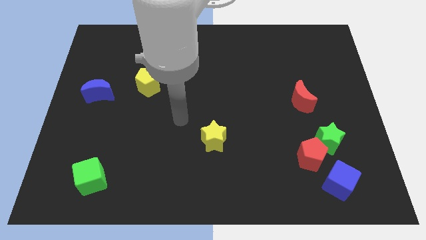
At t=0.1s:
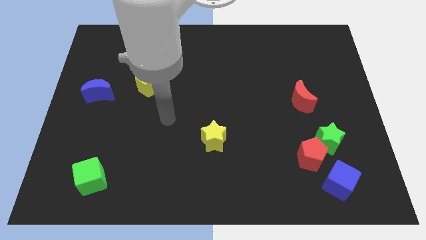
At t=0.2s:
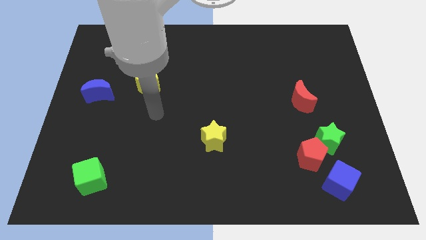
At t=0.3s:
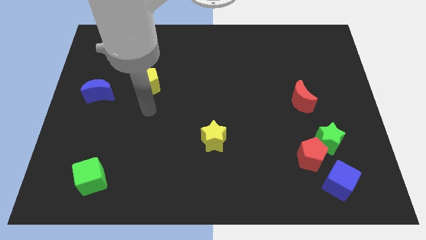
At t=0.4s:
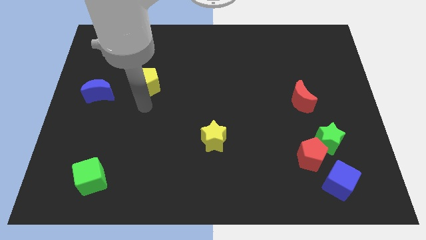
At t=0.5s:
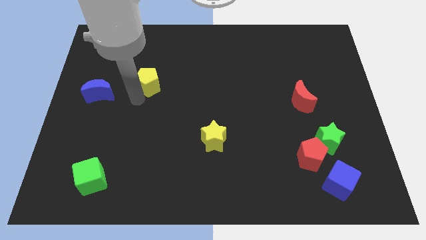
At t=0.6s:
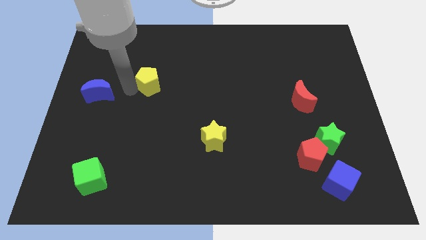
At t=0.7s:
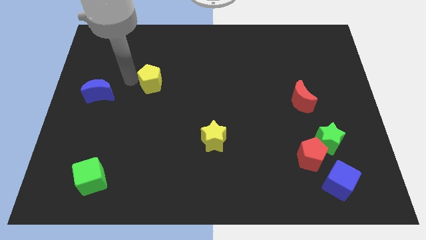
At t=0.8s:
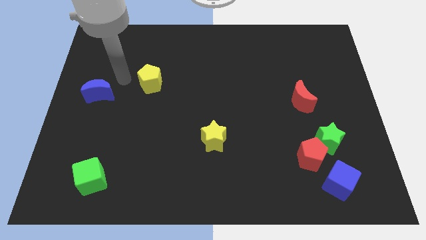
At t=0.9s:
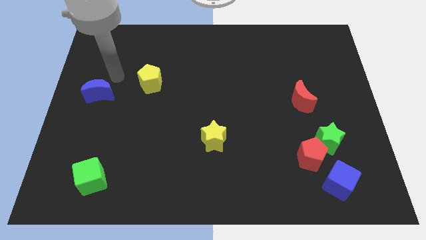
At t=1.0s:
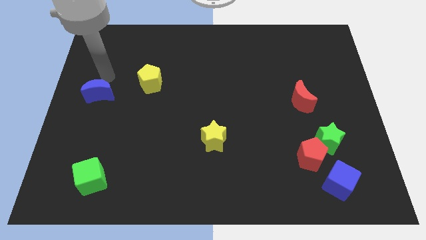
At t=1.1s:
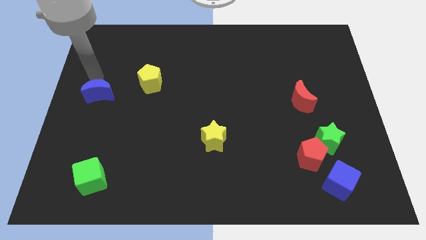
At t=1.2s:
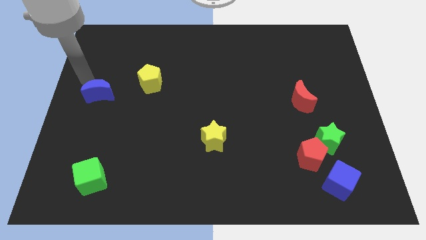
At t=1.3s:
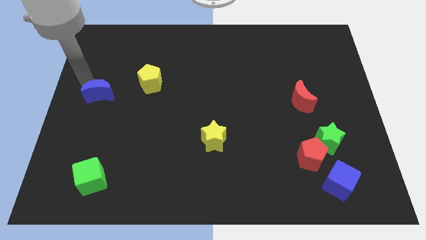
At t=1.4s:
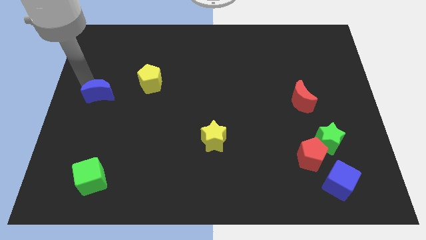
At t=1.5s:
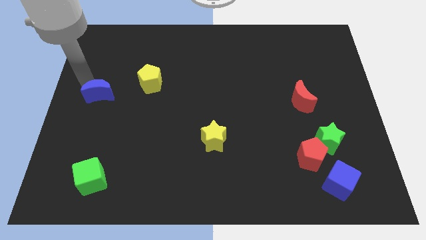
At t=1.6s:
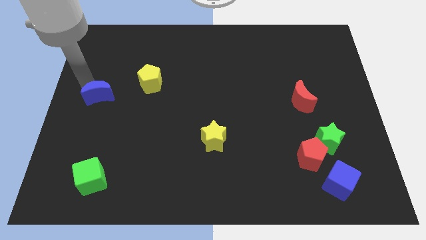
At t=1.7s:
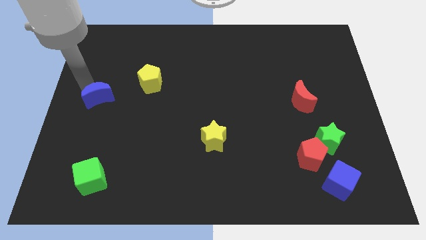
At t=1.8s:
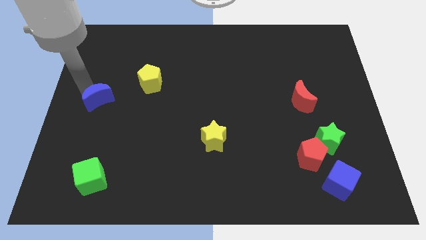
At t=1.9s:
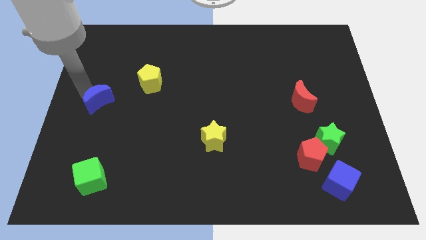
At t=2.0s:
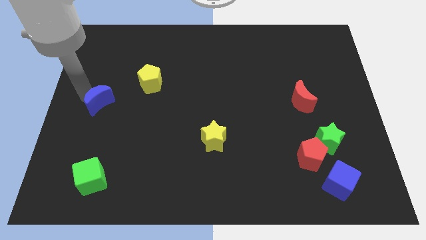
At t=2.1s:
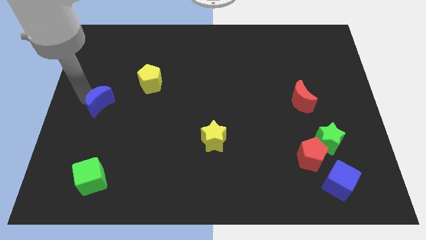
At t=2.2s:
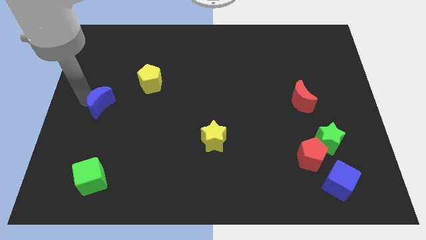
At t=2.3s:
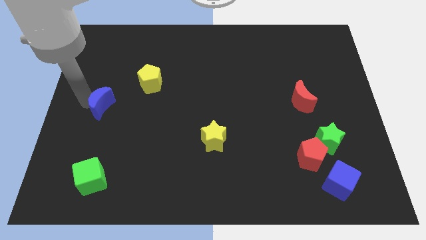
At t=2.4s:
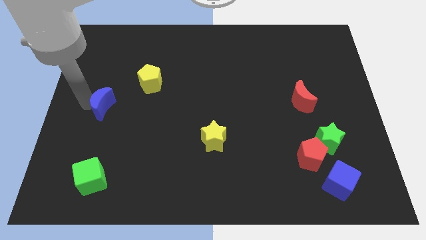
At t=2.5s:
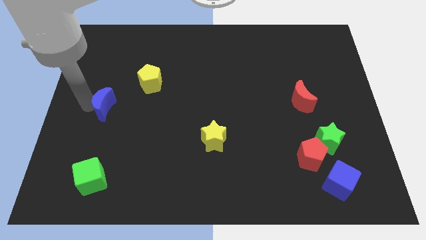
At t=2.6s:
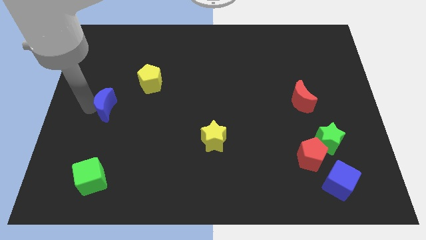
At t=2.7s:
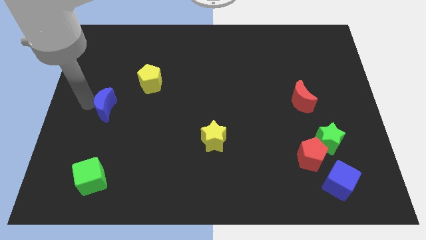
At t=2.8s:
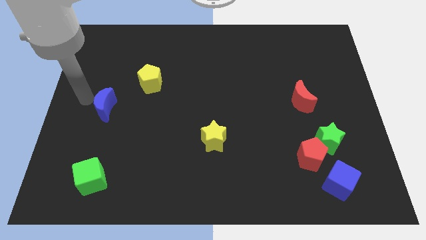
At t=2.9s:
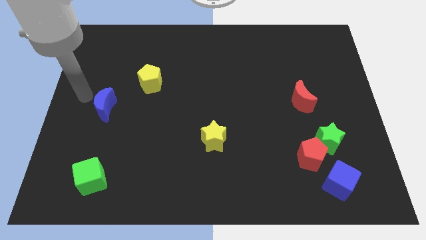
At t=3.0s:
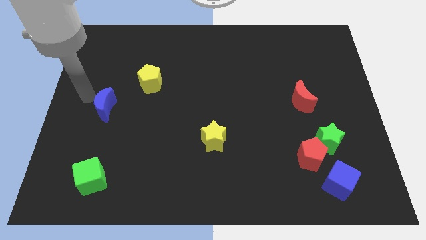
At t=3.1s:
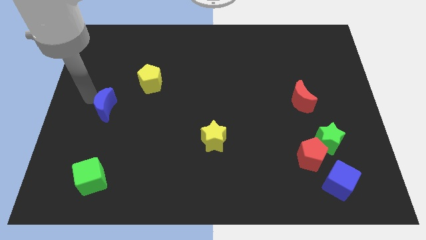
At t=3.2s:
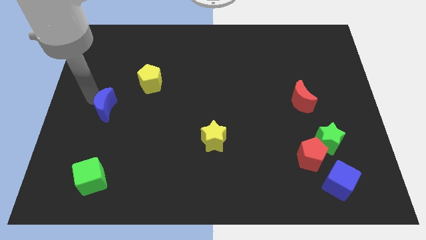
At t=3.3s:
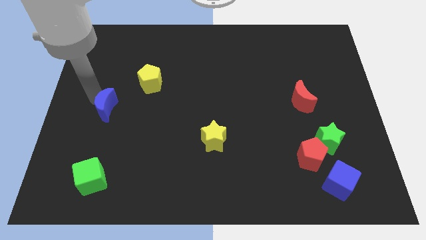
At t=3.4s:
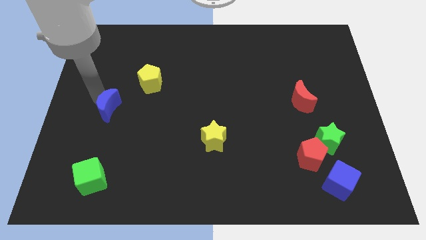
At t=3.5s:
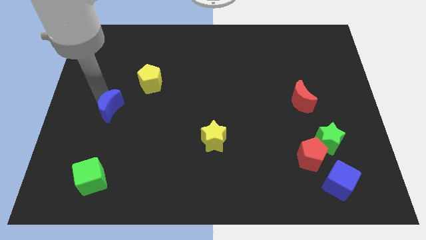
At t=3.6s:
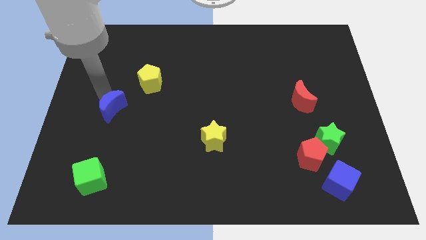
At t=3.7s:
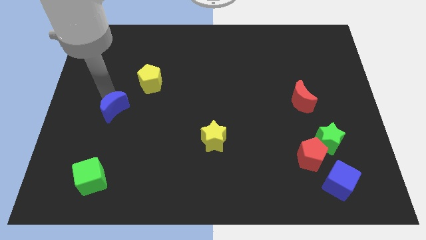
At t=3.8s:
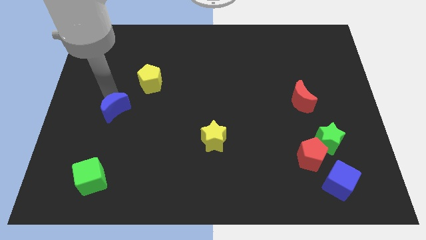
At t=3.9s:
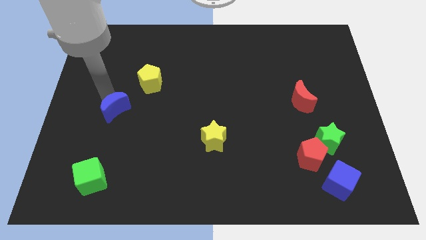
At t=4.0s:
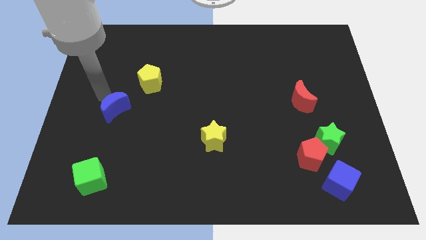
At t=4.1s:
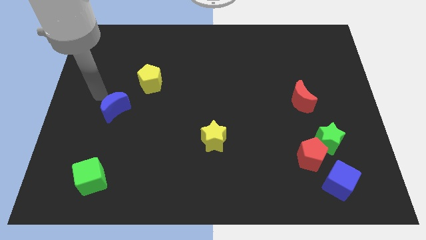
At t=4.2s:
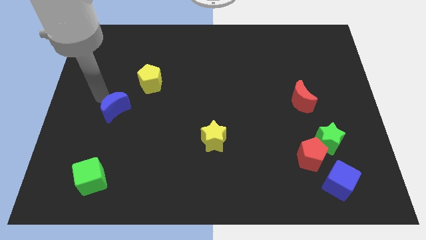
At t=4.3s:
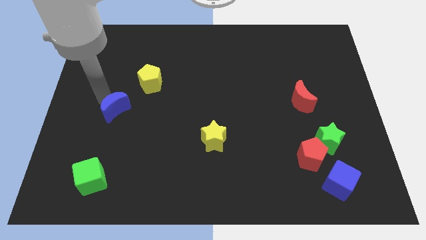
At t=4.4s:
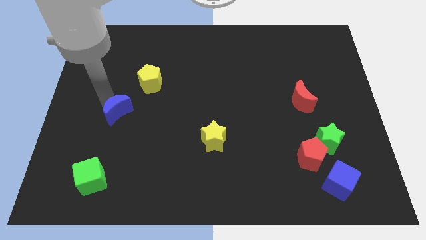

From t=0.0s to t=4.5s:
slide the blue moon a little down and right diagonally

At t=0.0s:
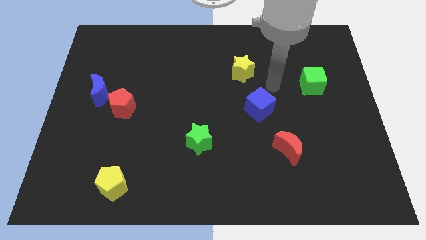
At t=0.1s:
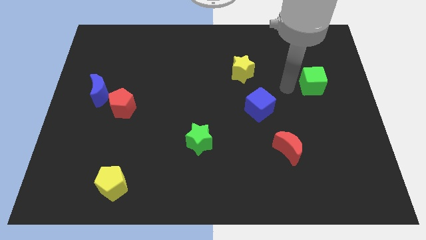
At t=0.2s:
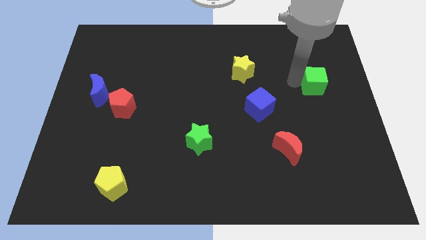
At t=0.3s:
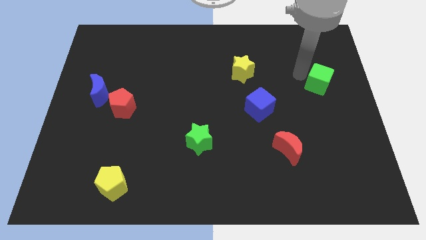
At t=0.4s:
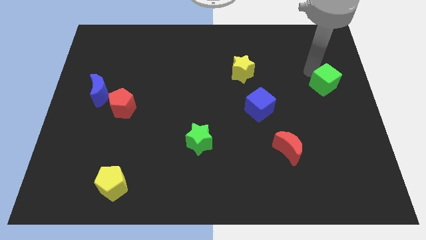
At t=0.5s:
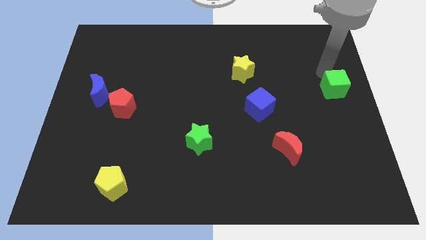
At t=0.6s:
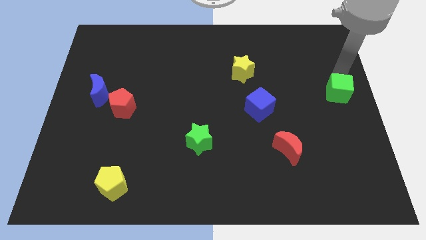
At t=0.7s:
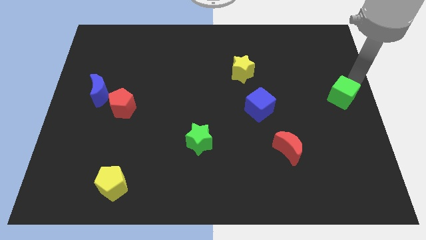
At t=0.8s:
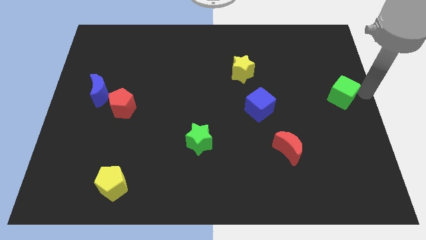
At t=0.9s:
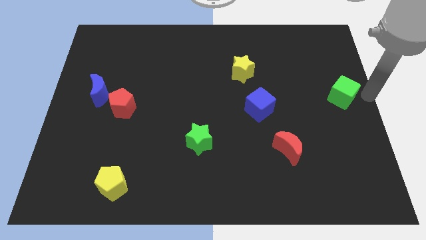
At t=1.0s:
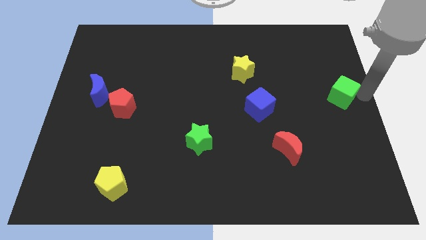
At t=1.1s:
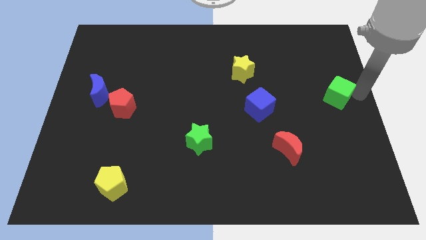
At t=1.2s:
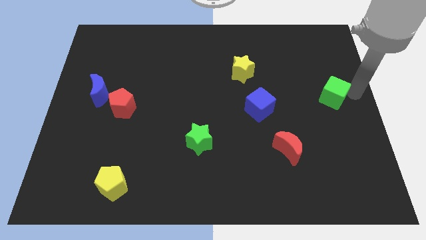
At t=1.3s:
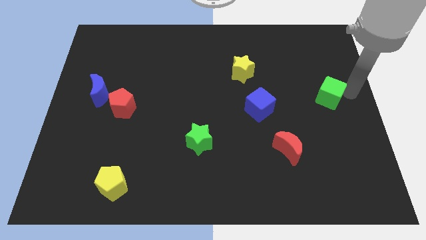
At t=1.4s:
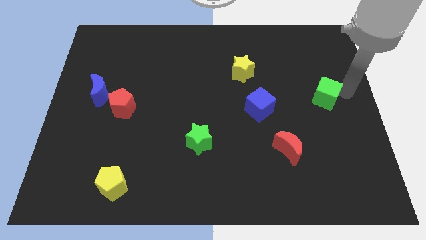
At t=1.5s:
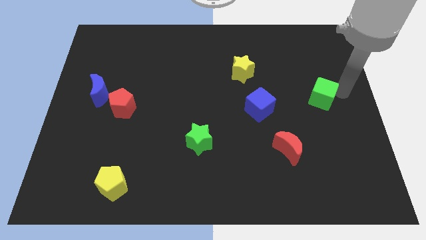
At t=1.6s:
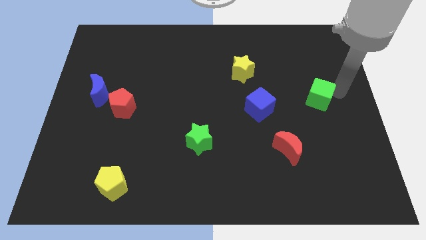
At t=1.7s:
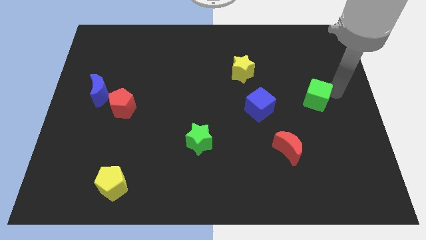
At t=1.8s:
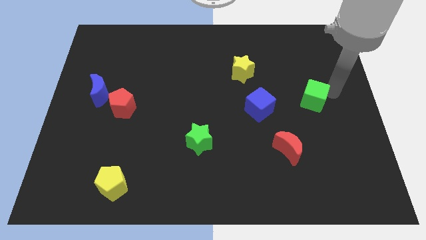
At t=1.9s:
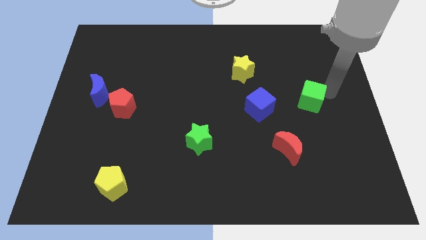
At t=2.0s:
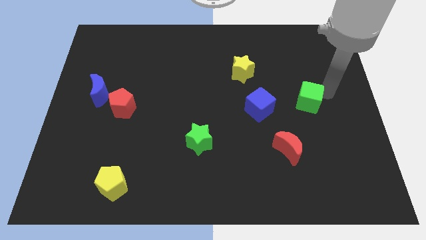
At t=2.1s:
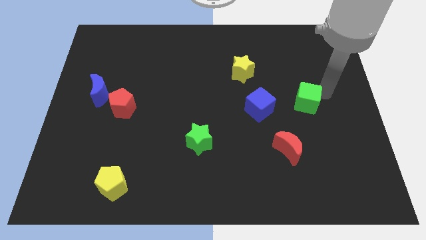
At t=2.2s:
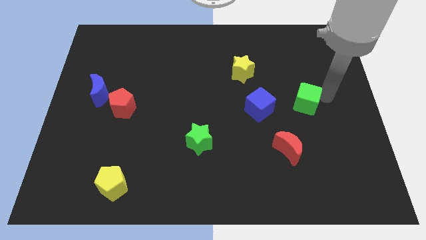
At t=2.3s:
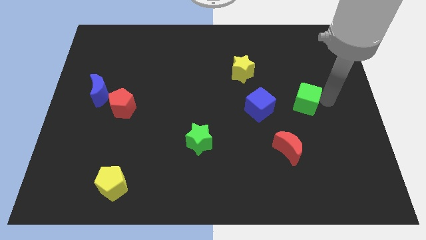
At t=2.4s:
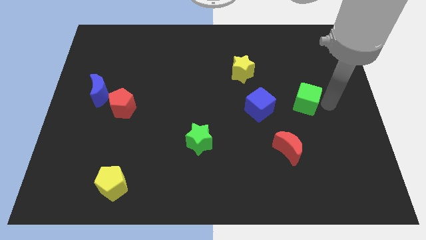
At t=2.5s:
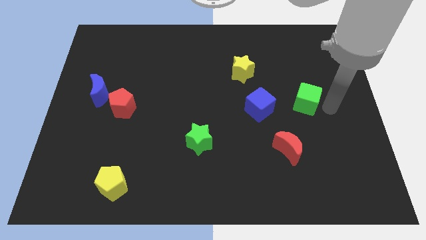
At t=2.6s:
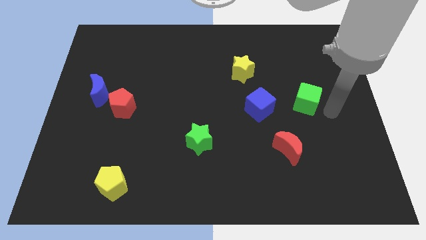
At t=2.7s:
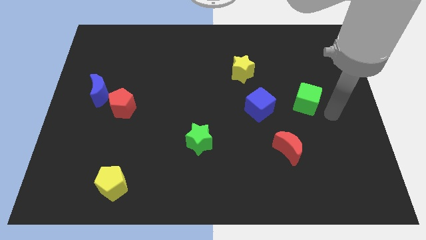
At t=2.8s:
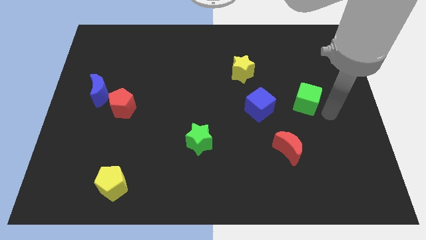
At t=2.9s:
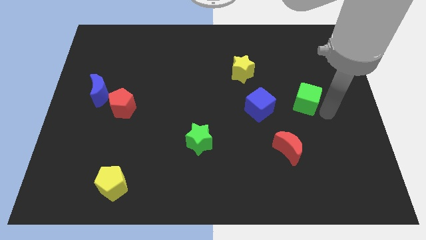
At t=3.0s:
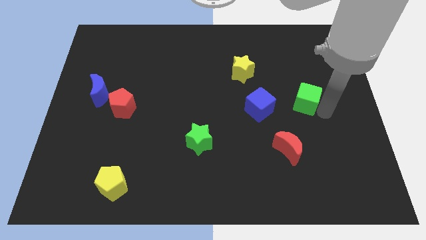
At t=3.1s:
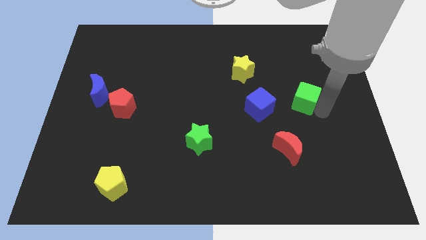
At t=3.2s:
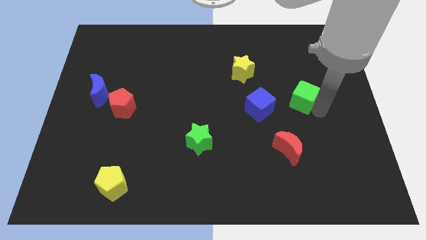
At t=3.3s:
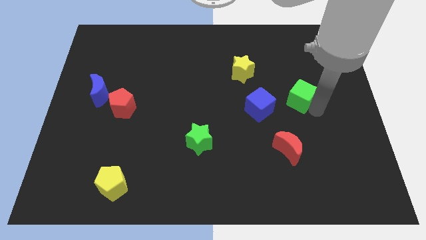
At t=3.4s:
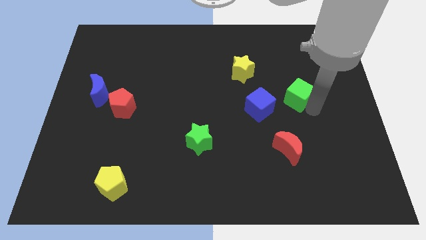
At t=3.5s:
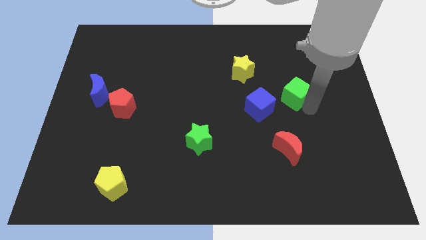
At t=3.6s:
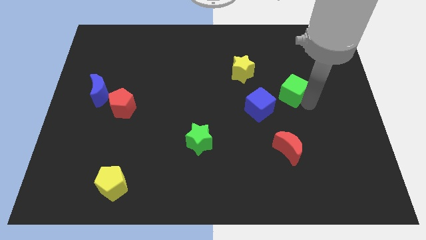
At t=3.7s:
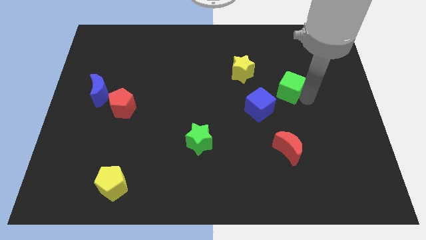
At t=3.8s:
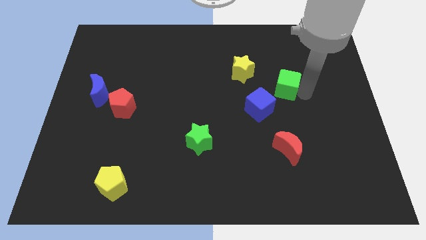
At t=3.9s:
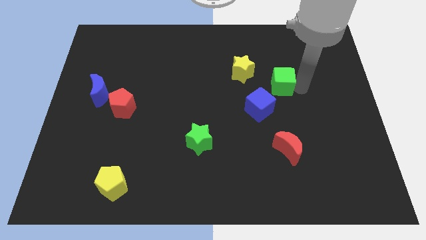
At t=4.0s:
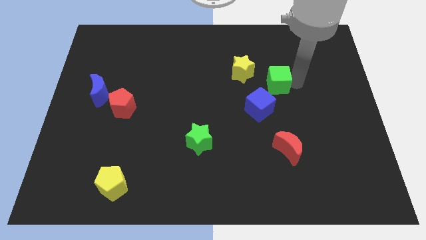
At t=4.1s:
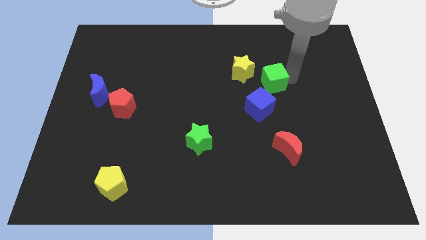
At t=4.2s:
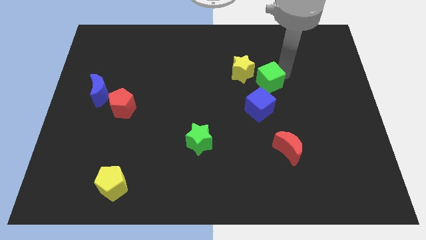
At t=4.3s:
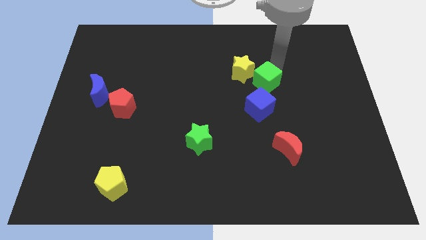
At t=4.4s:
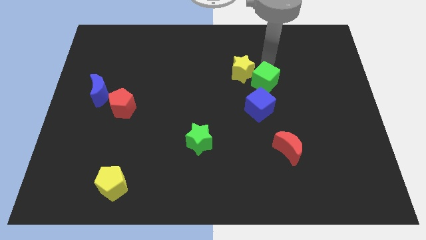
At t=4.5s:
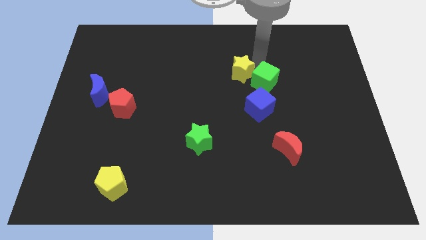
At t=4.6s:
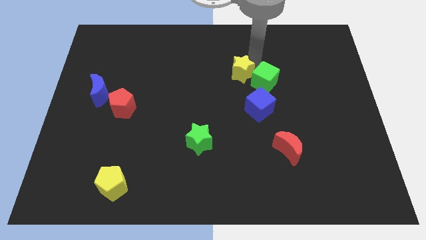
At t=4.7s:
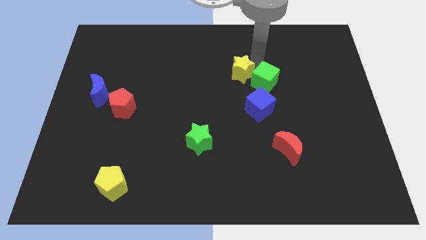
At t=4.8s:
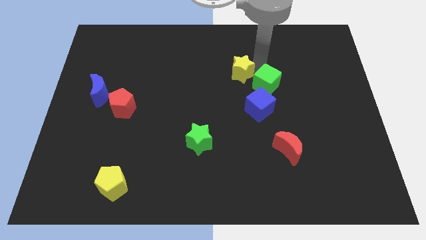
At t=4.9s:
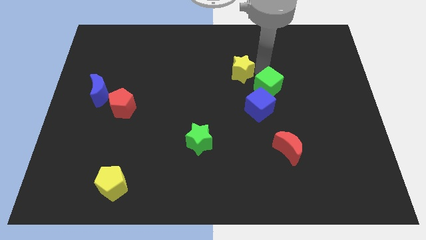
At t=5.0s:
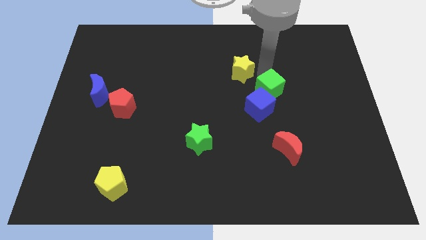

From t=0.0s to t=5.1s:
slightly move the green cube downwards and to the left
